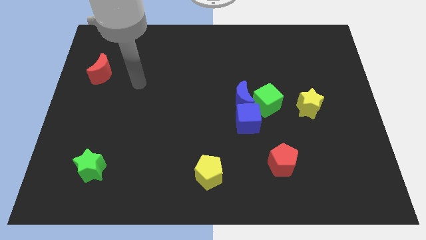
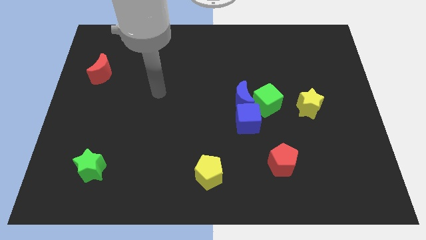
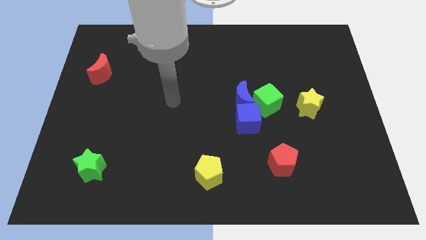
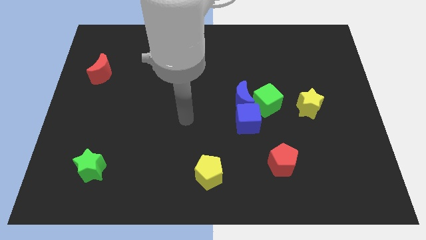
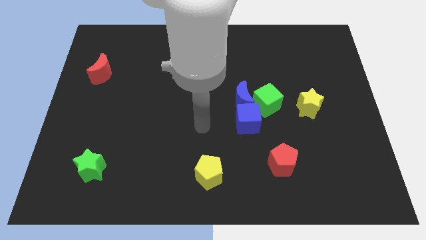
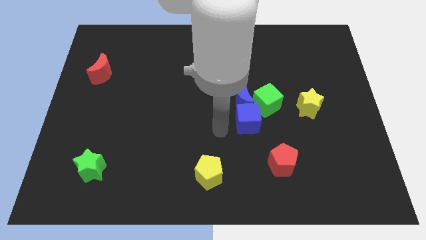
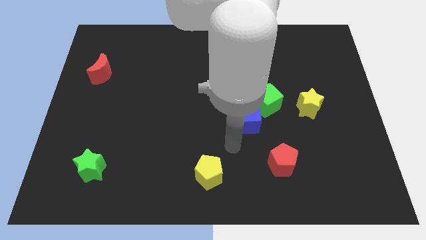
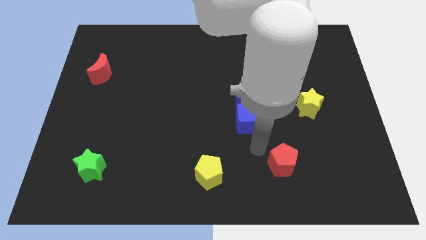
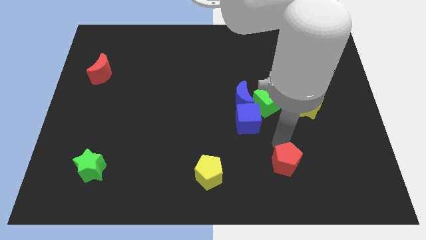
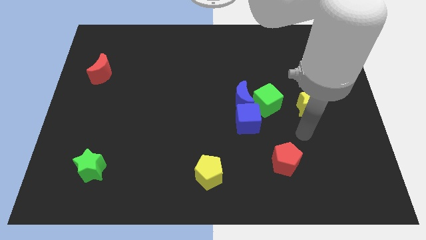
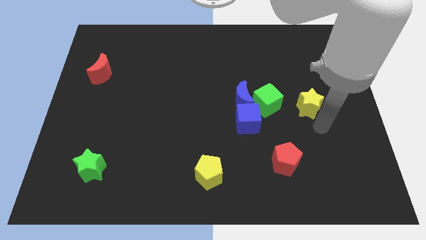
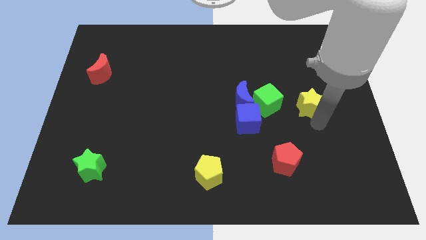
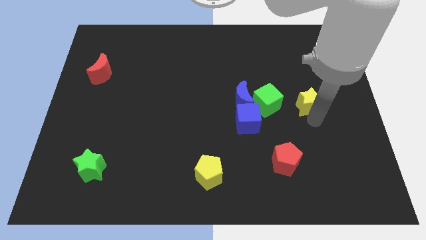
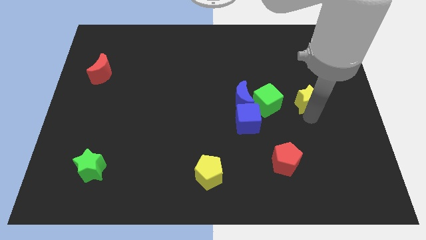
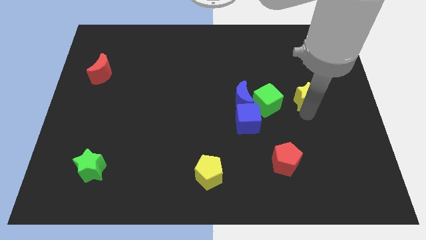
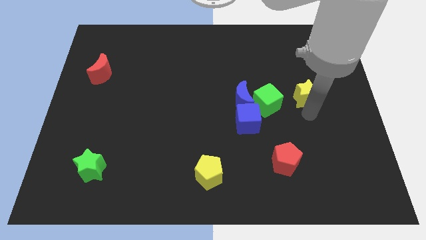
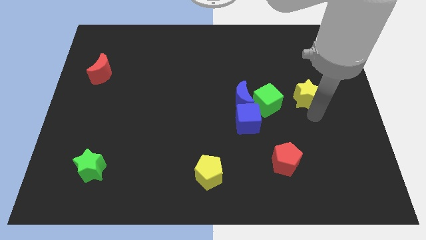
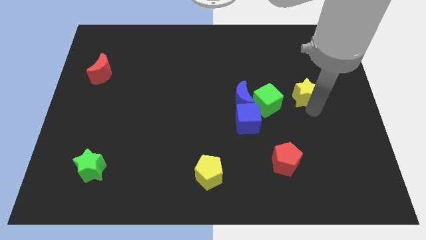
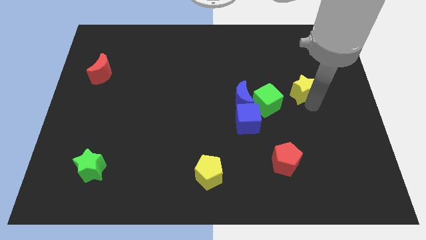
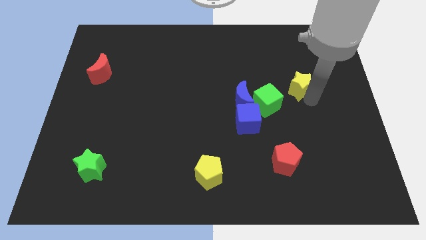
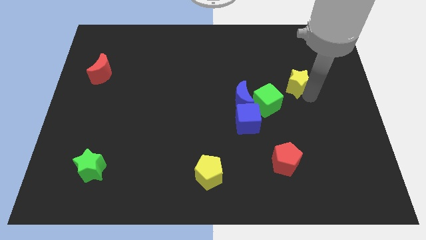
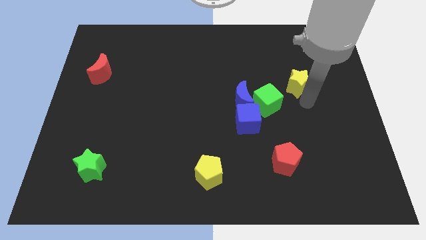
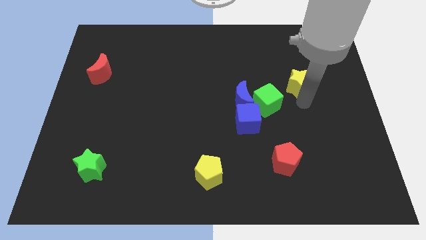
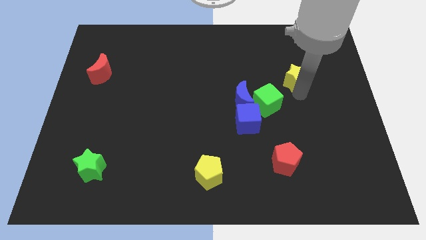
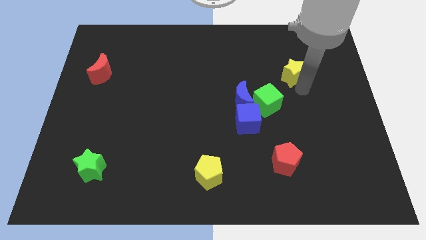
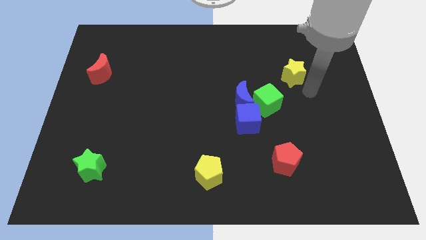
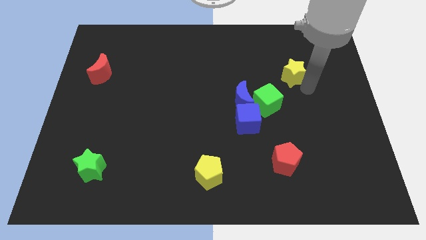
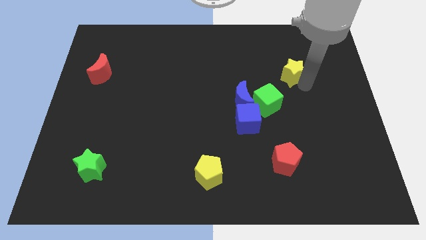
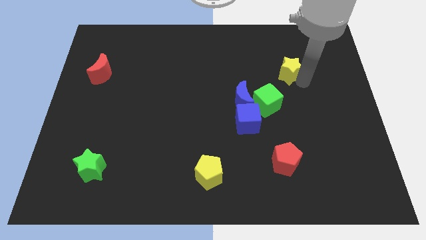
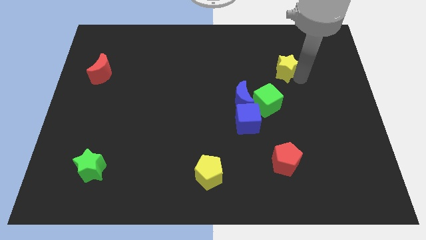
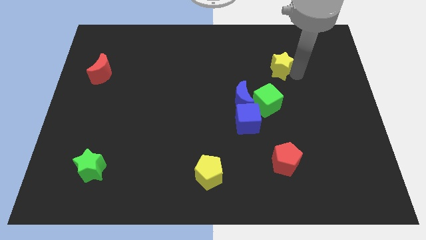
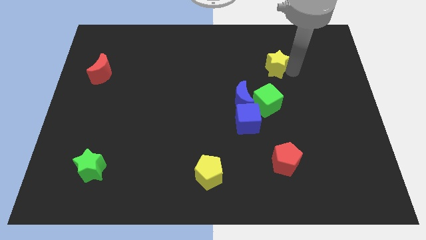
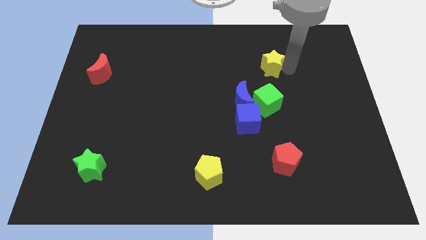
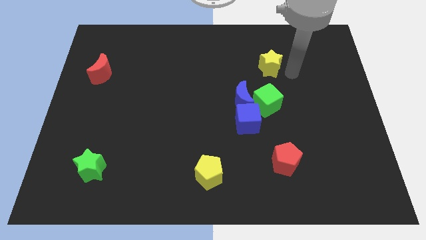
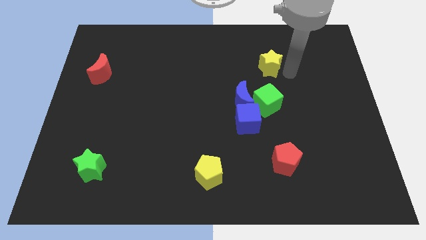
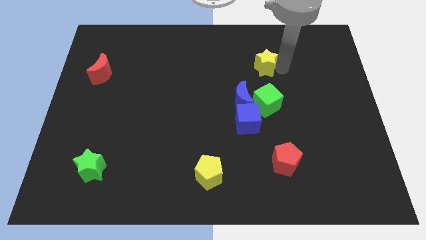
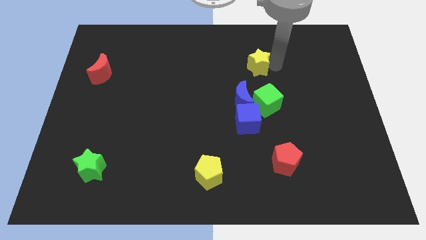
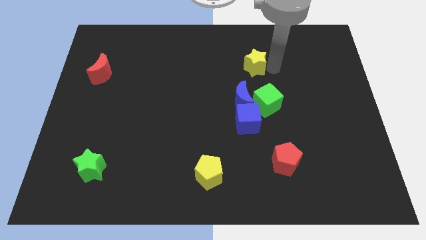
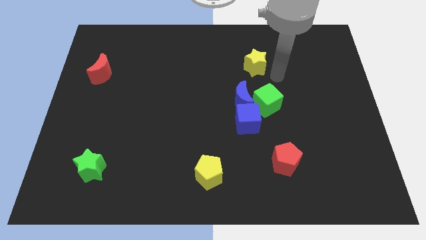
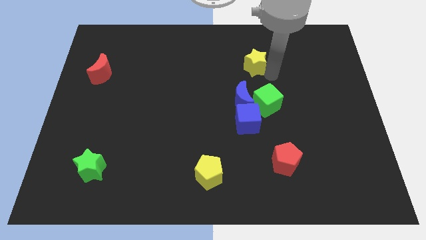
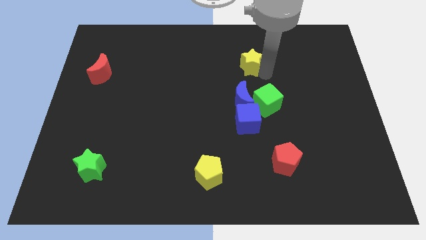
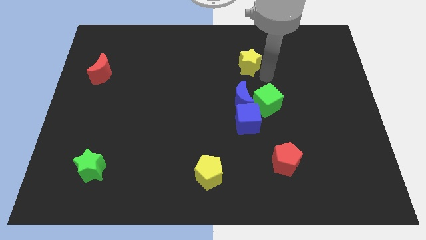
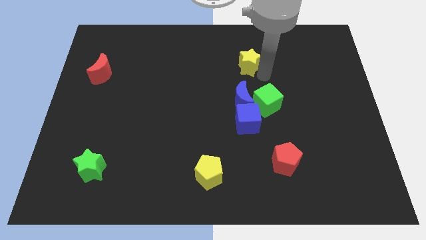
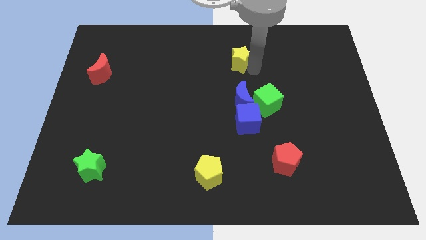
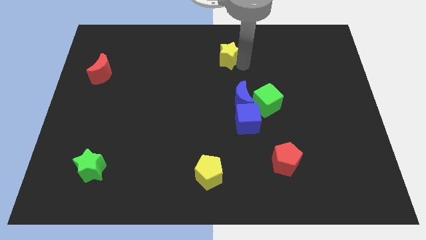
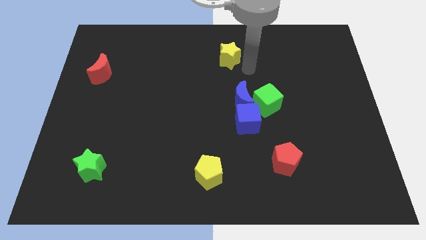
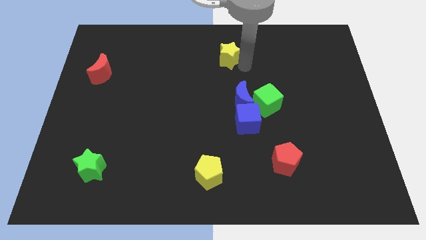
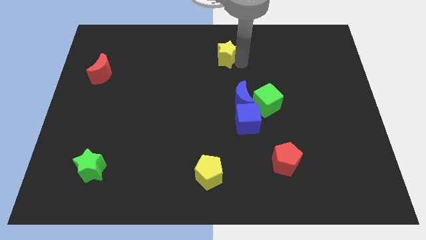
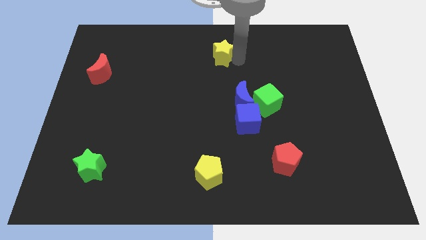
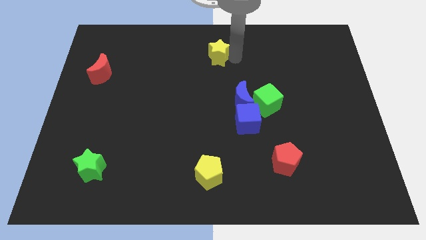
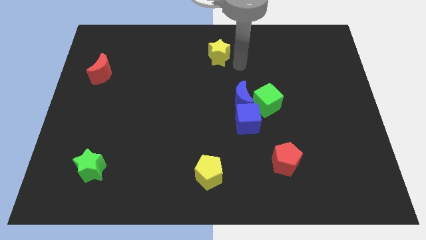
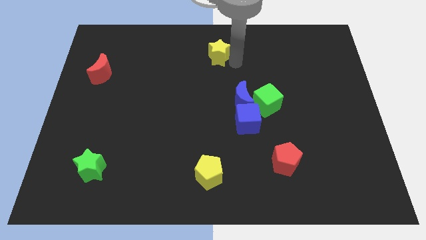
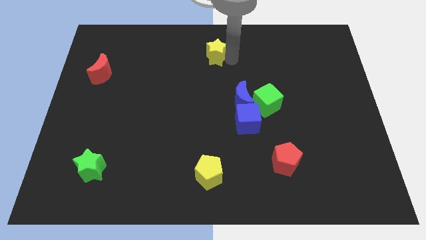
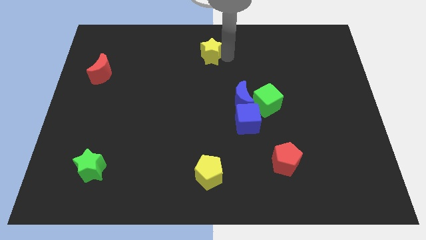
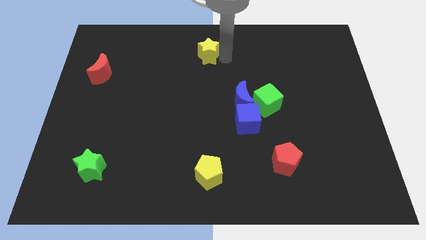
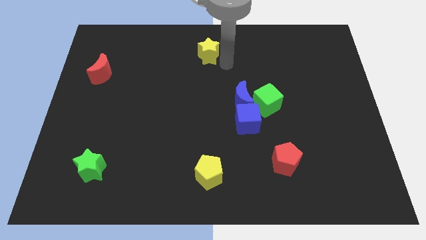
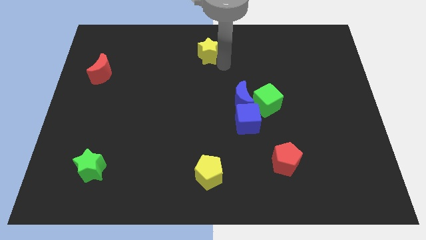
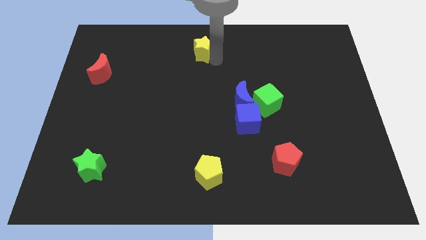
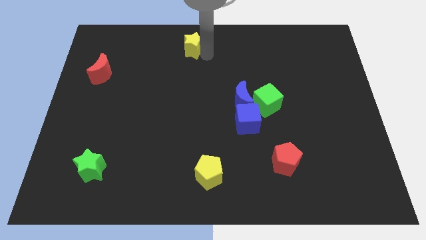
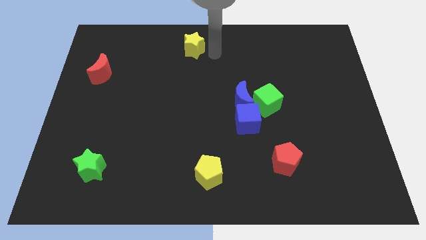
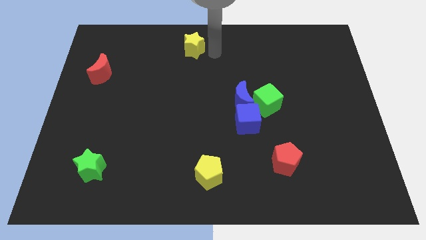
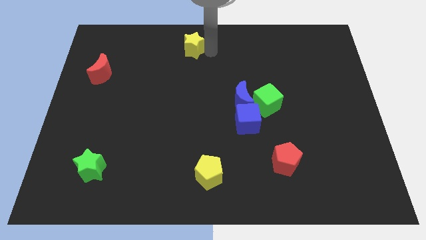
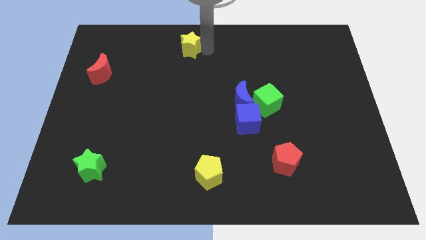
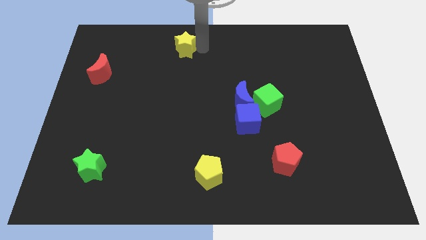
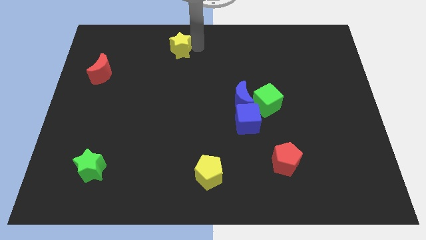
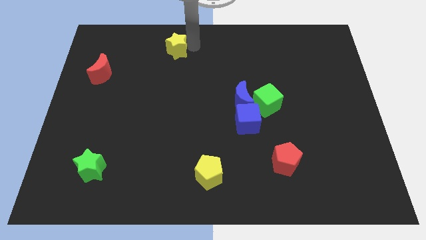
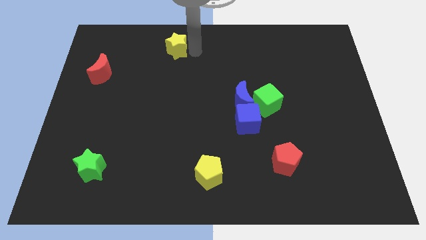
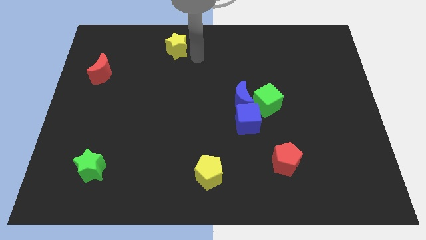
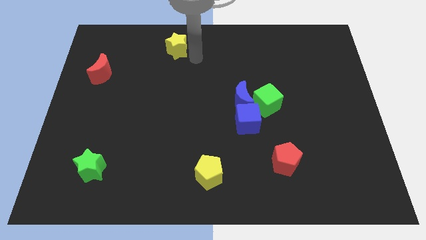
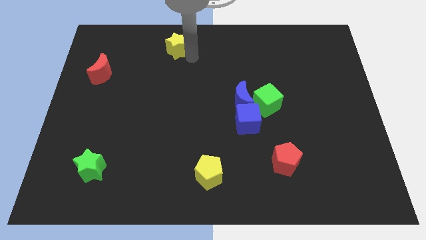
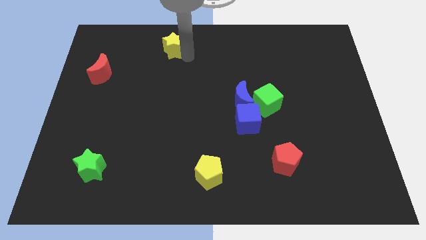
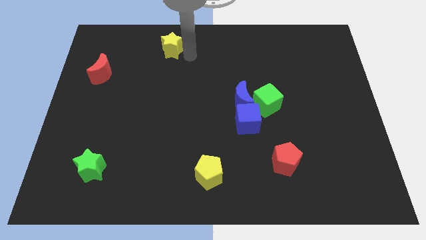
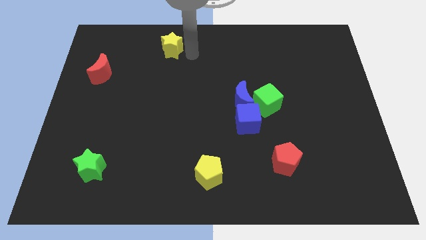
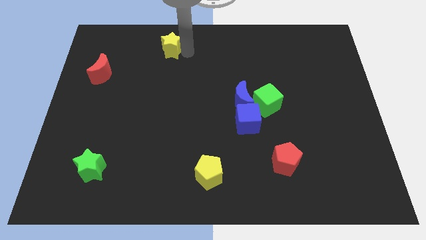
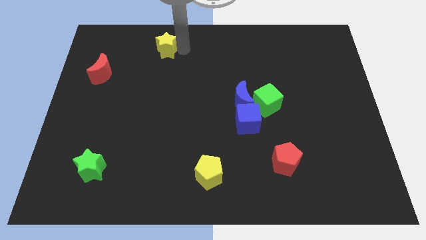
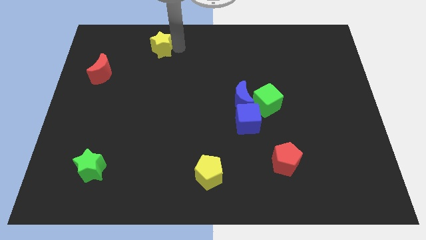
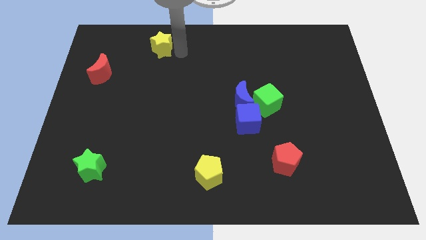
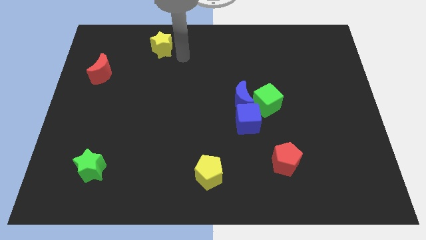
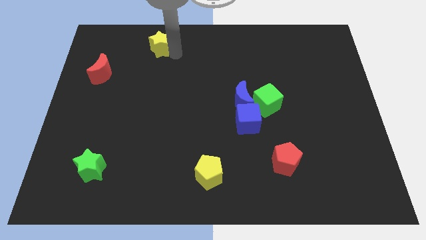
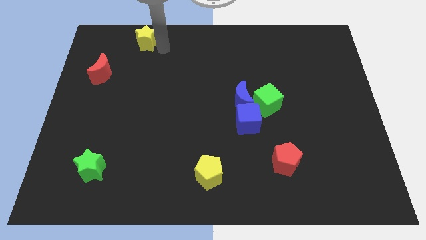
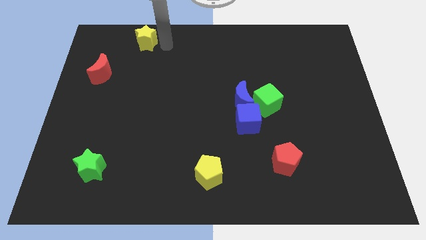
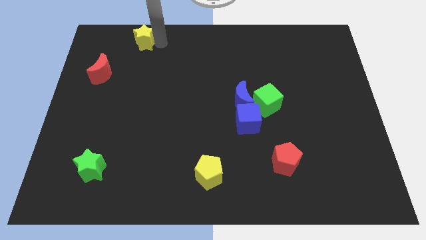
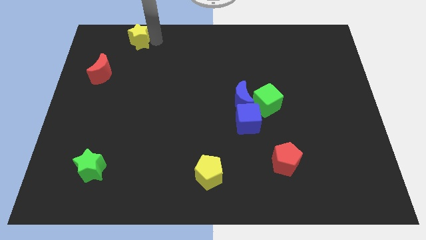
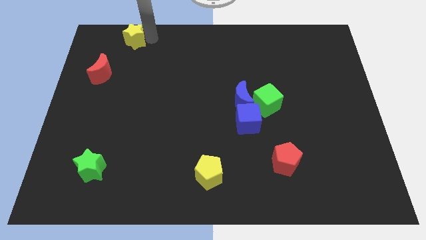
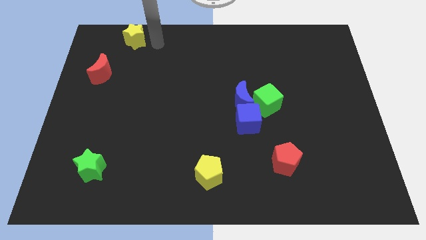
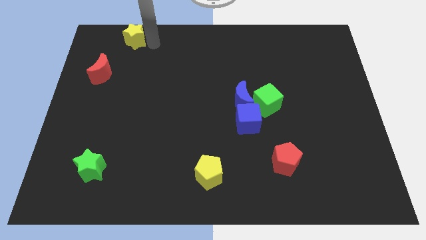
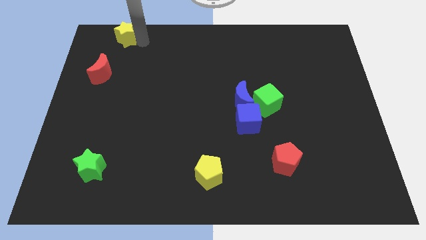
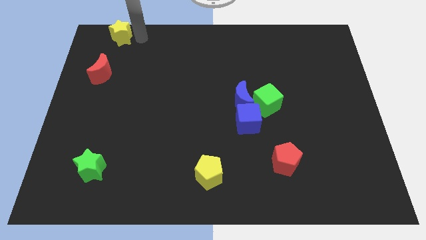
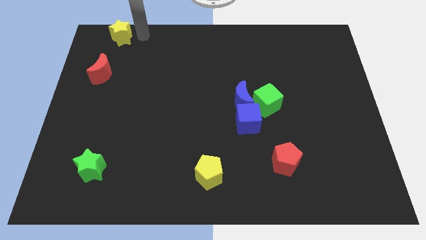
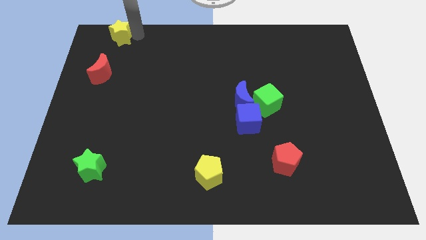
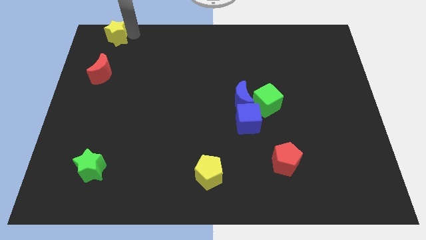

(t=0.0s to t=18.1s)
push the yellow star to the top left
